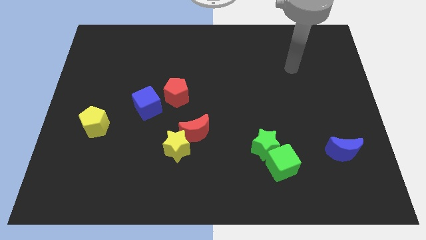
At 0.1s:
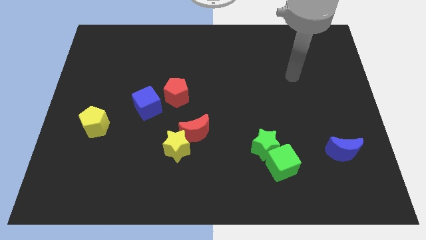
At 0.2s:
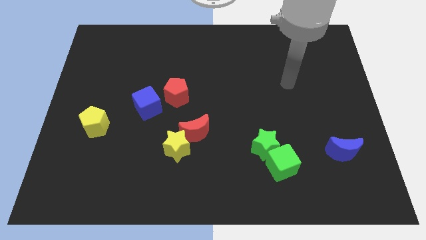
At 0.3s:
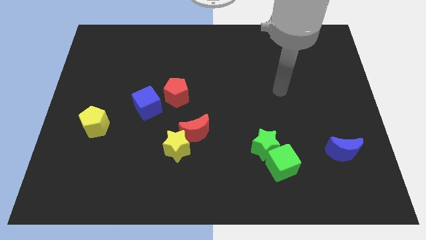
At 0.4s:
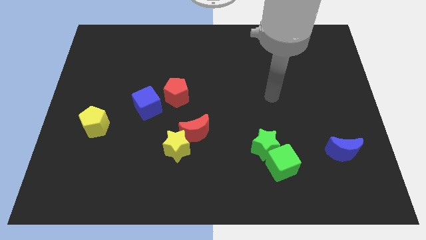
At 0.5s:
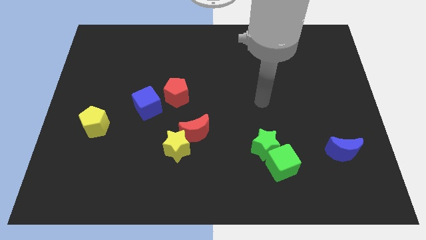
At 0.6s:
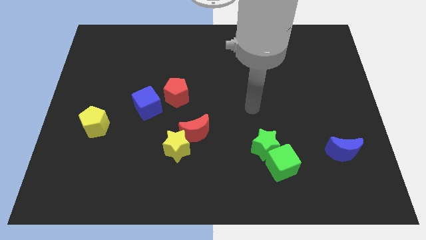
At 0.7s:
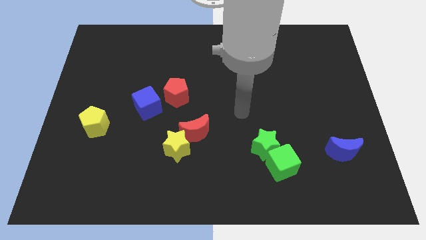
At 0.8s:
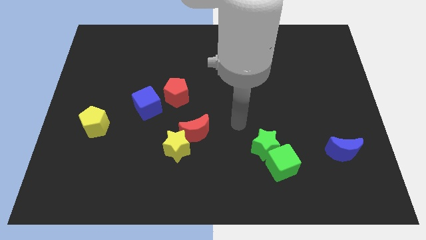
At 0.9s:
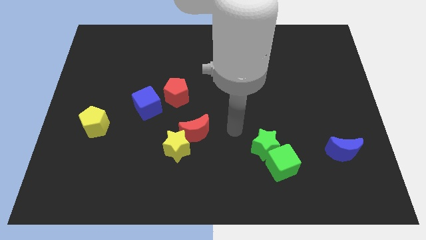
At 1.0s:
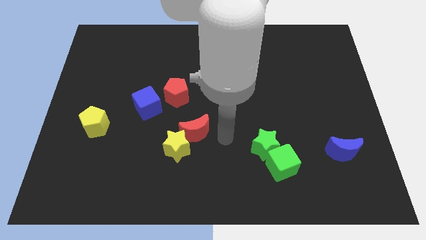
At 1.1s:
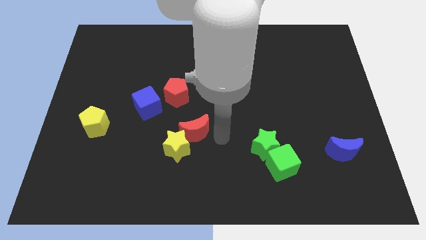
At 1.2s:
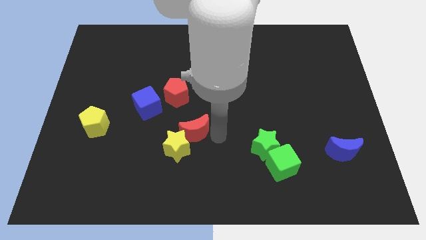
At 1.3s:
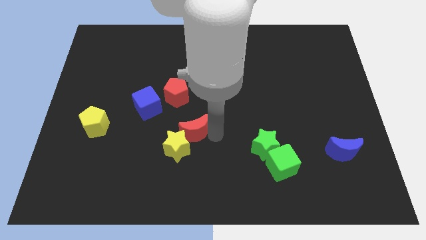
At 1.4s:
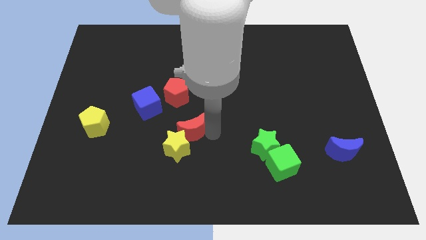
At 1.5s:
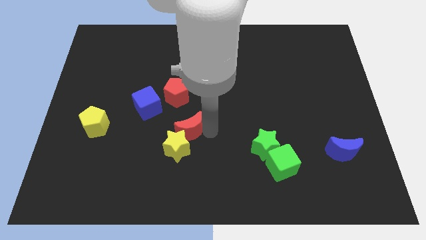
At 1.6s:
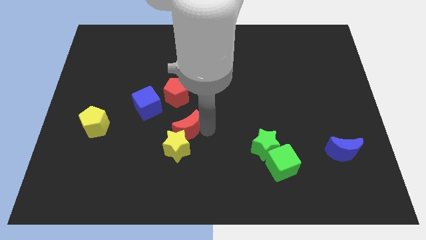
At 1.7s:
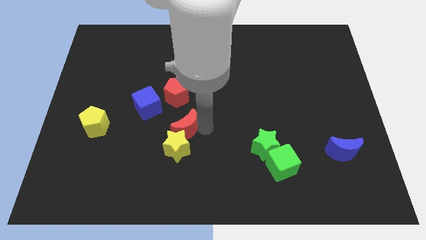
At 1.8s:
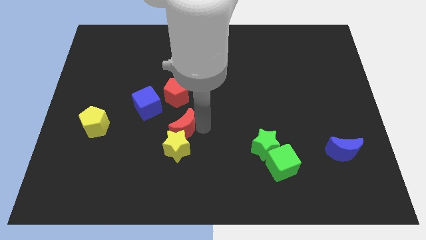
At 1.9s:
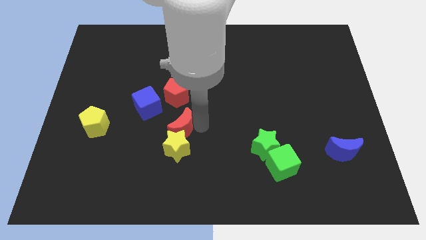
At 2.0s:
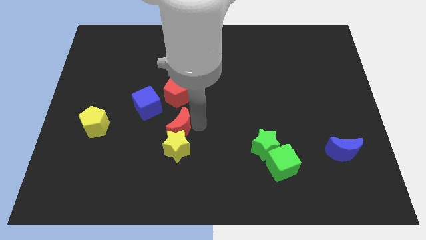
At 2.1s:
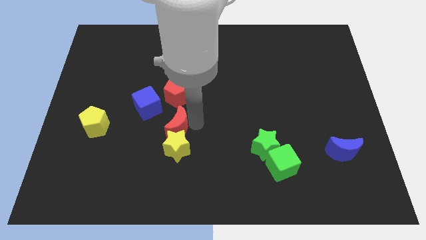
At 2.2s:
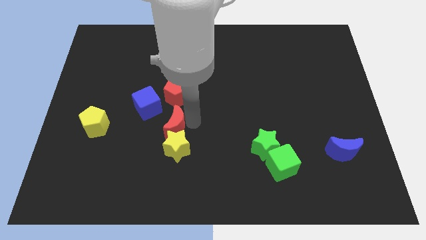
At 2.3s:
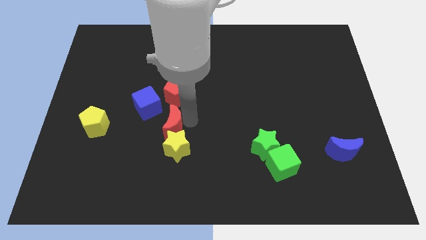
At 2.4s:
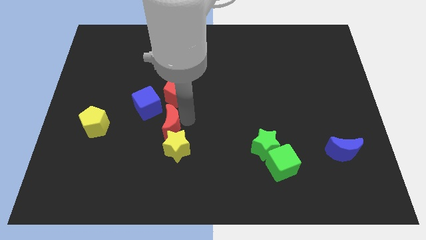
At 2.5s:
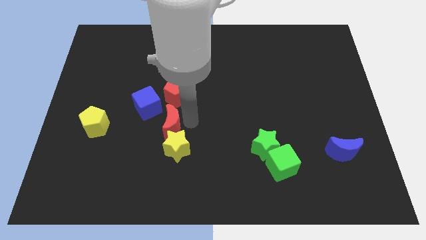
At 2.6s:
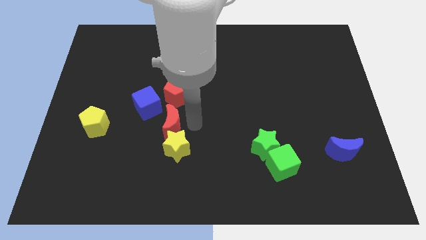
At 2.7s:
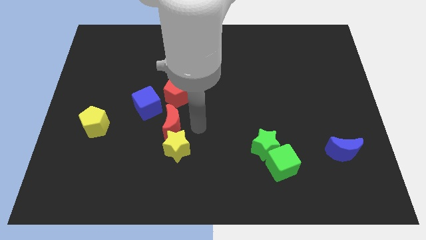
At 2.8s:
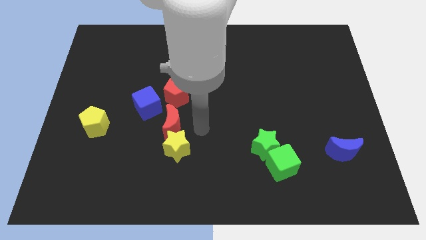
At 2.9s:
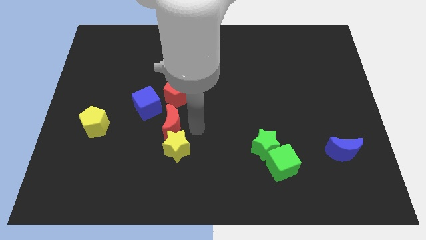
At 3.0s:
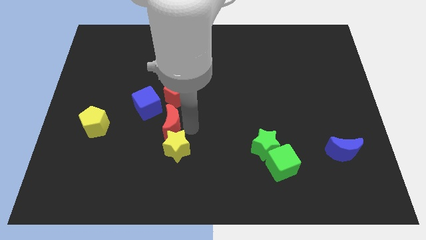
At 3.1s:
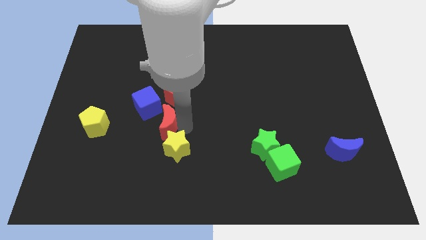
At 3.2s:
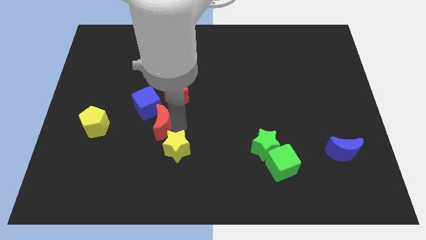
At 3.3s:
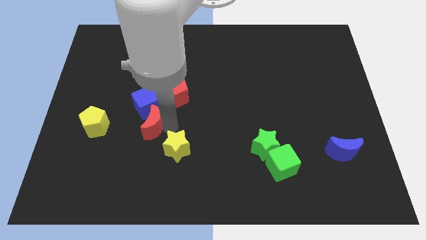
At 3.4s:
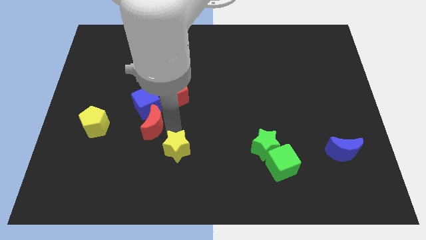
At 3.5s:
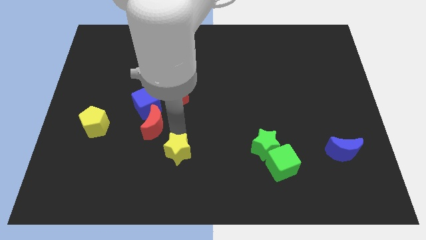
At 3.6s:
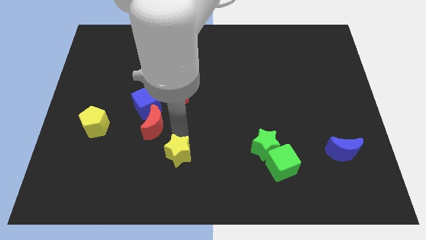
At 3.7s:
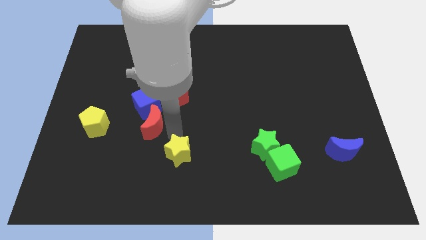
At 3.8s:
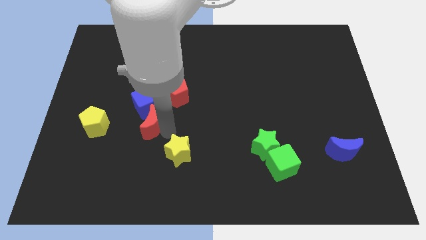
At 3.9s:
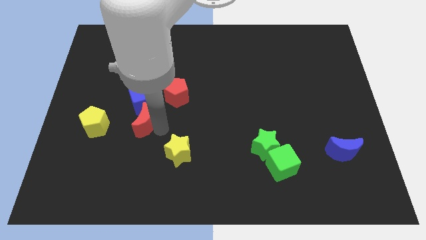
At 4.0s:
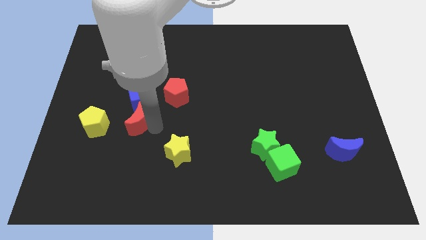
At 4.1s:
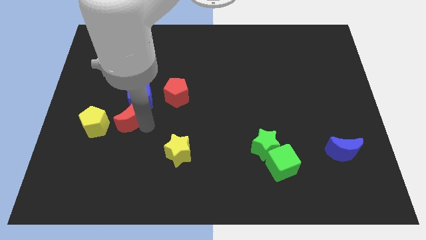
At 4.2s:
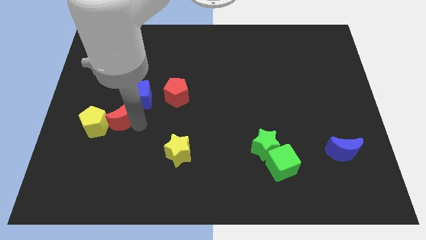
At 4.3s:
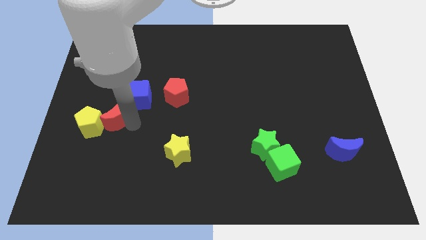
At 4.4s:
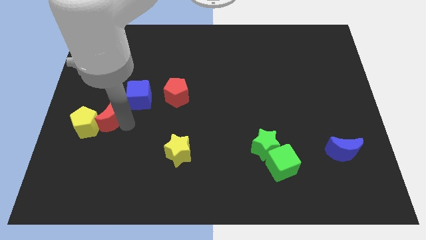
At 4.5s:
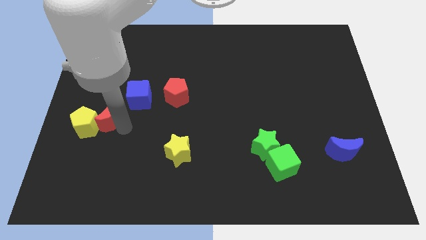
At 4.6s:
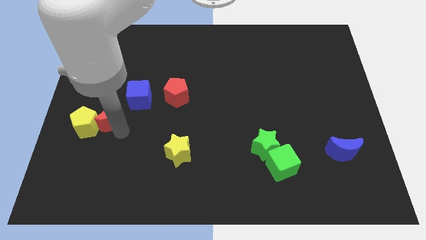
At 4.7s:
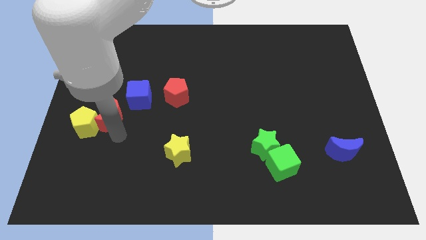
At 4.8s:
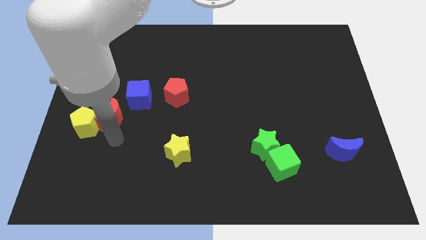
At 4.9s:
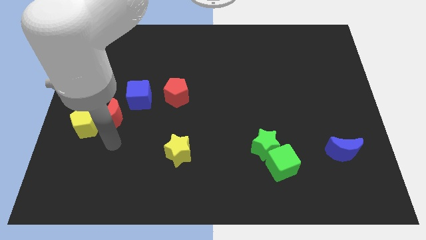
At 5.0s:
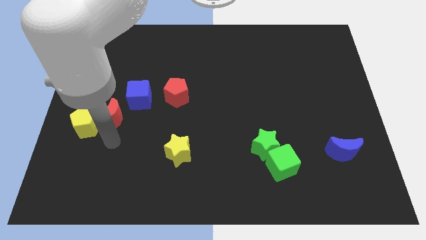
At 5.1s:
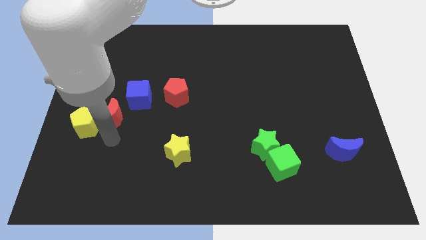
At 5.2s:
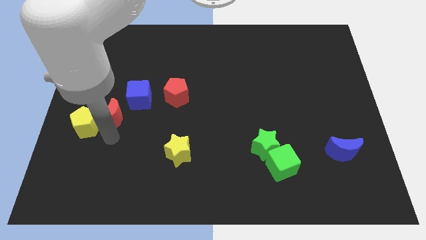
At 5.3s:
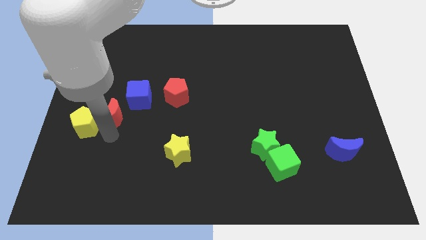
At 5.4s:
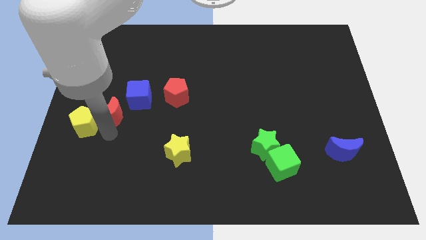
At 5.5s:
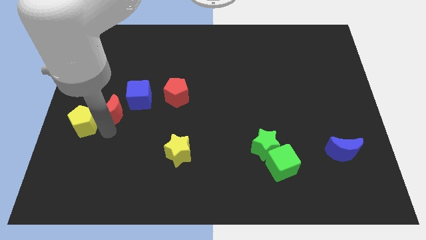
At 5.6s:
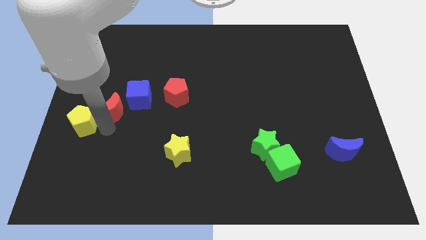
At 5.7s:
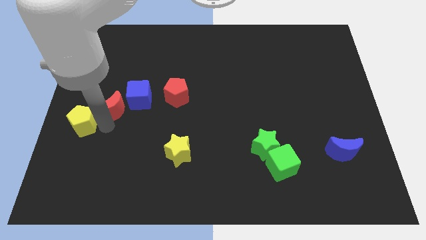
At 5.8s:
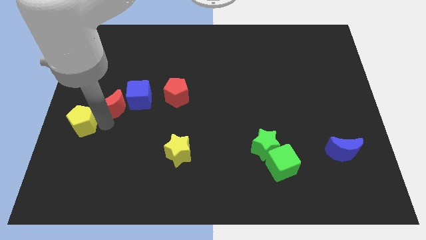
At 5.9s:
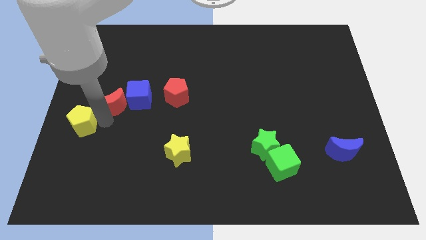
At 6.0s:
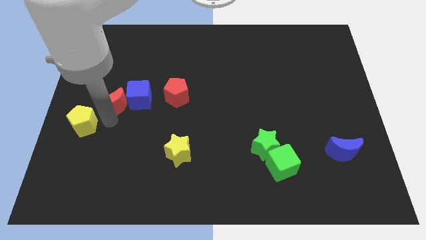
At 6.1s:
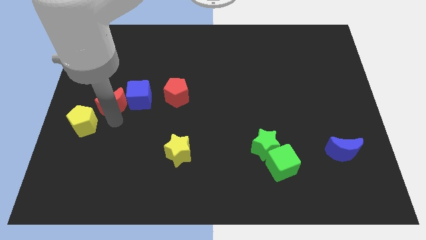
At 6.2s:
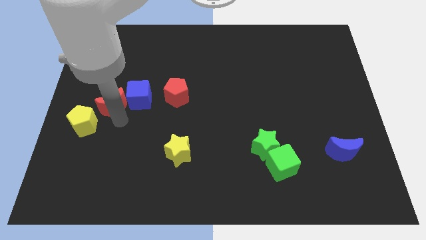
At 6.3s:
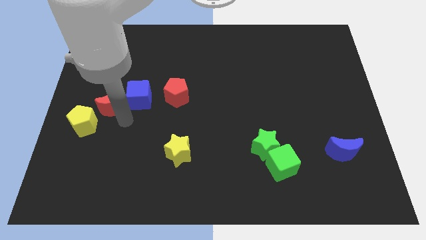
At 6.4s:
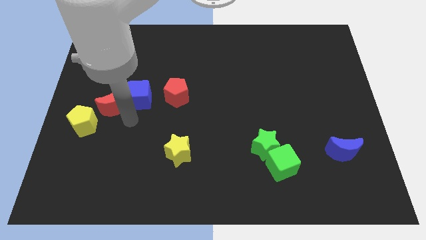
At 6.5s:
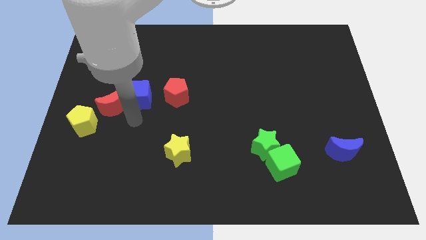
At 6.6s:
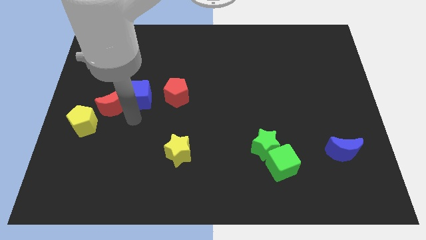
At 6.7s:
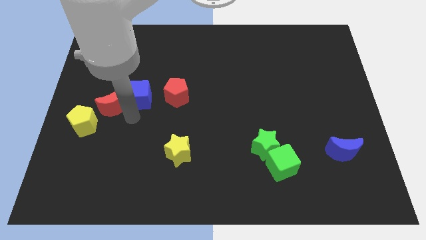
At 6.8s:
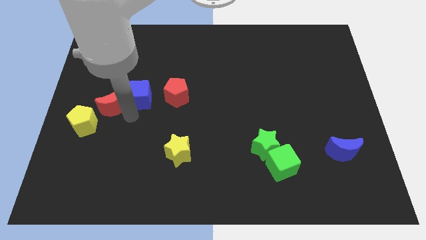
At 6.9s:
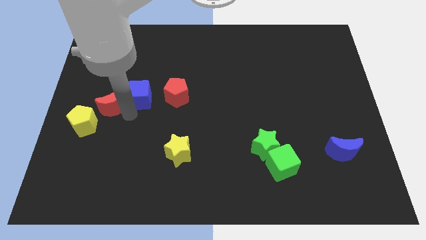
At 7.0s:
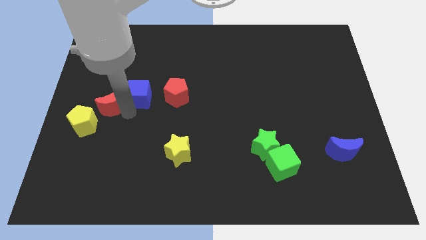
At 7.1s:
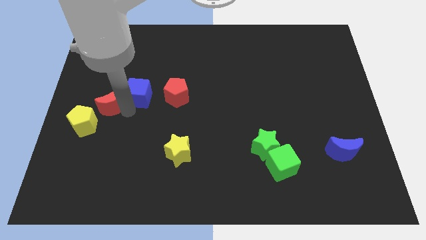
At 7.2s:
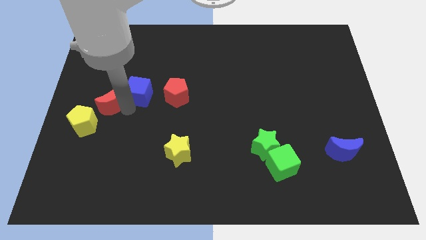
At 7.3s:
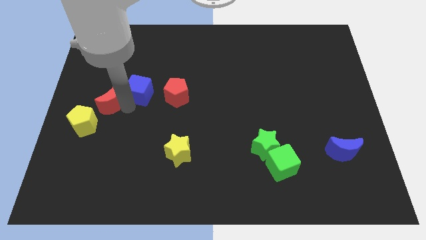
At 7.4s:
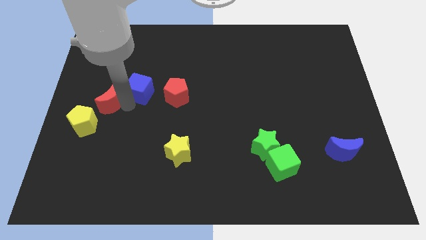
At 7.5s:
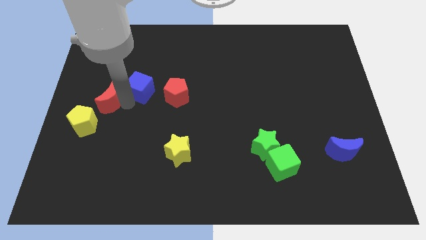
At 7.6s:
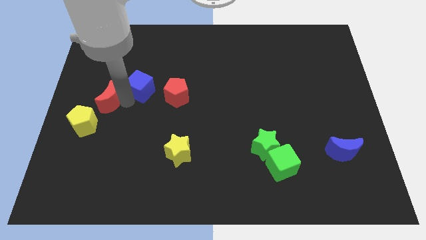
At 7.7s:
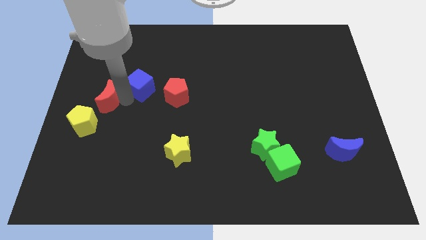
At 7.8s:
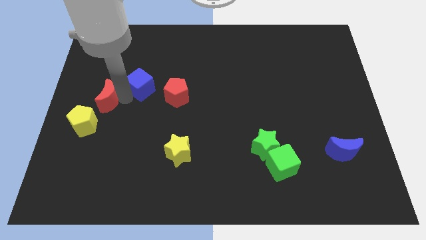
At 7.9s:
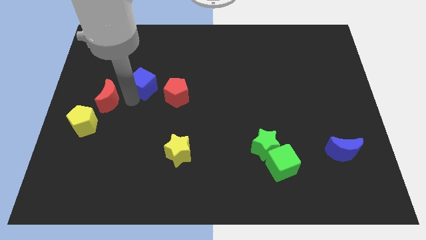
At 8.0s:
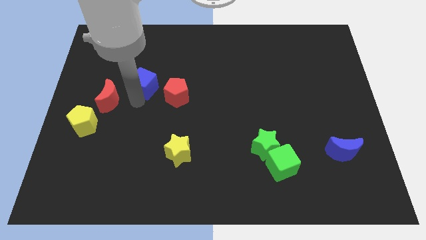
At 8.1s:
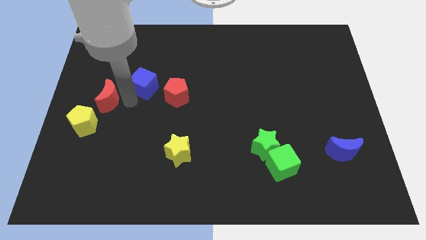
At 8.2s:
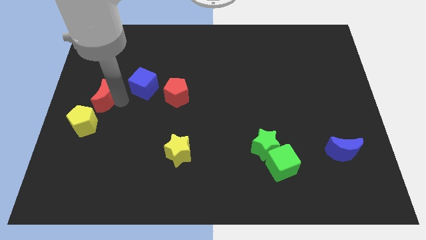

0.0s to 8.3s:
move the red moon to the center left
